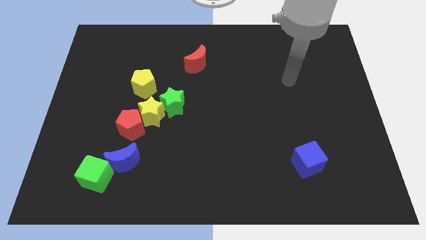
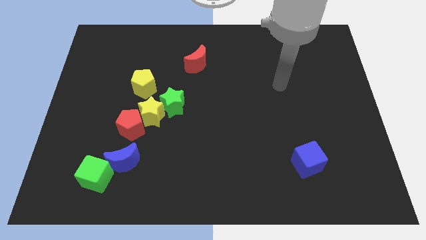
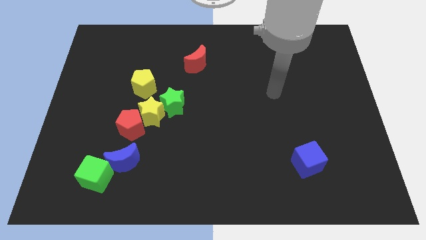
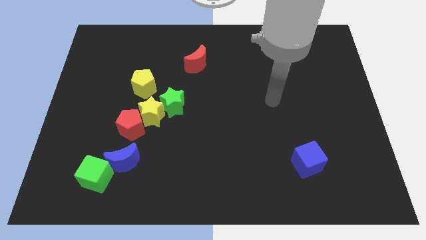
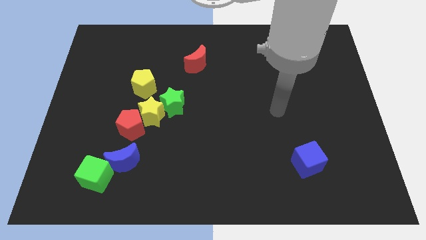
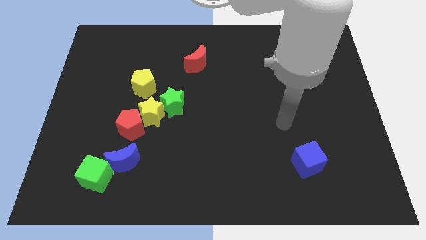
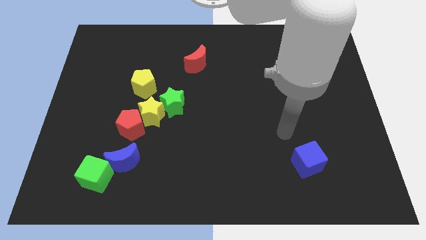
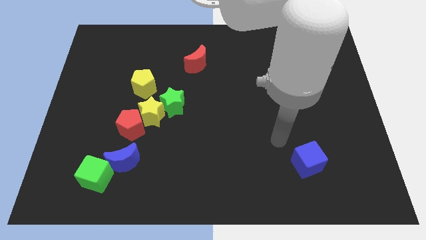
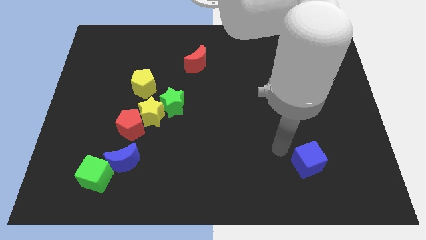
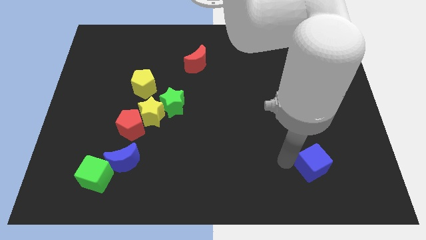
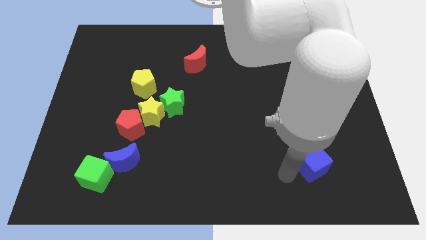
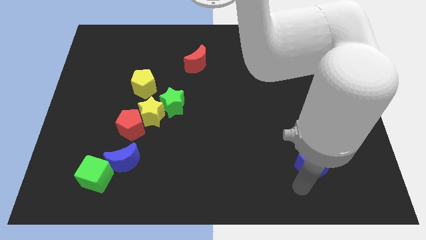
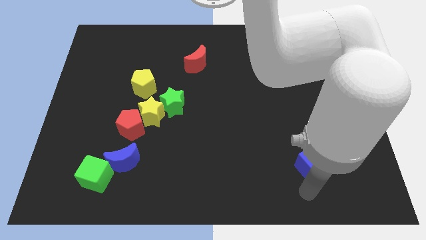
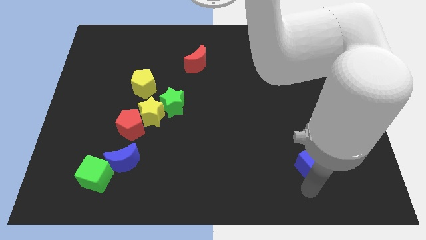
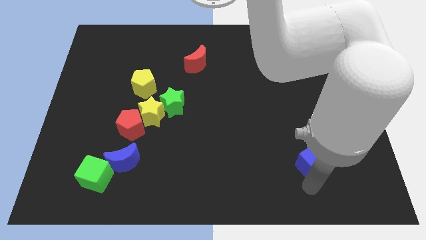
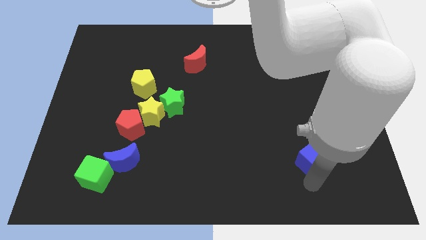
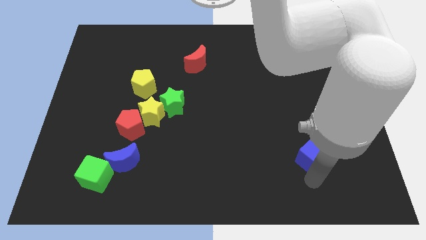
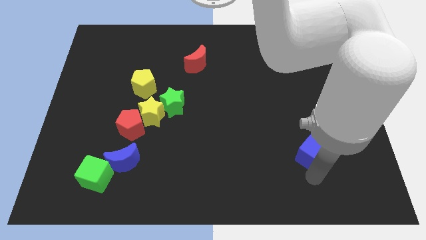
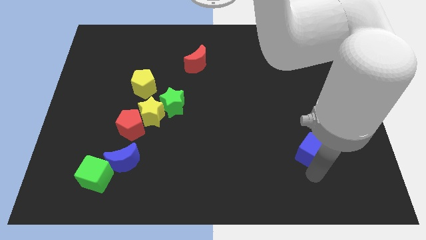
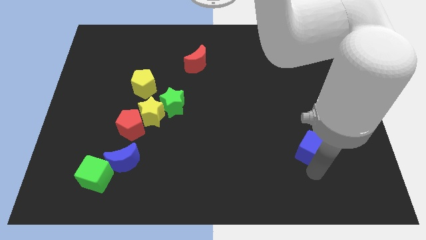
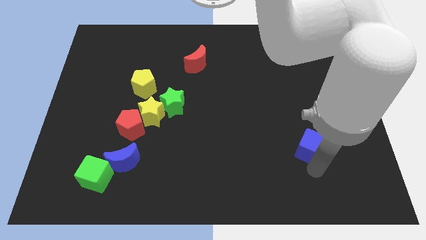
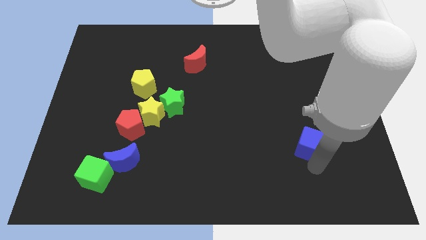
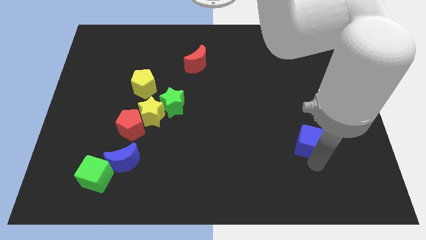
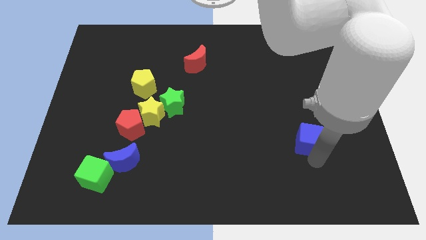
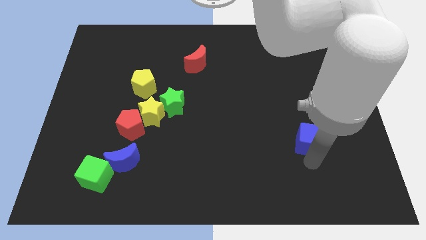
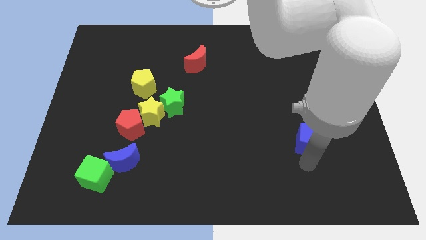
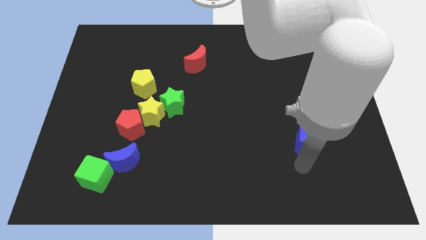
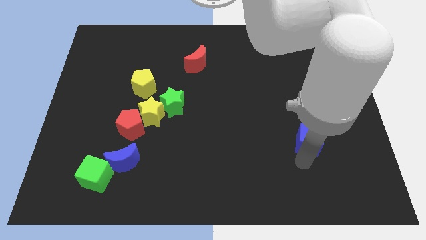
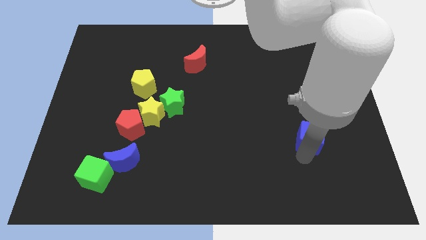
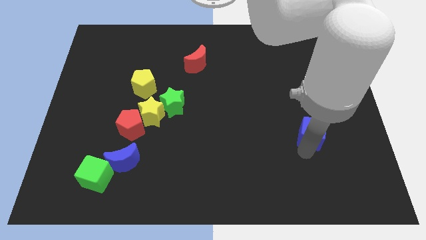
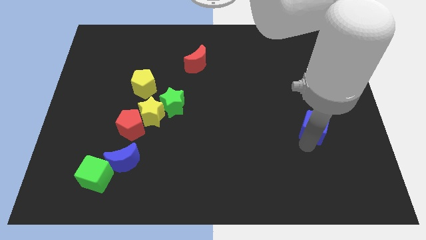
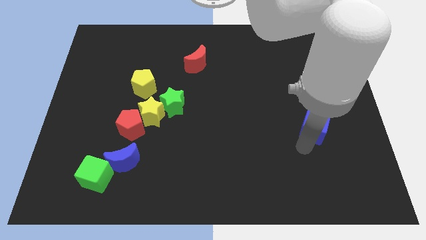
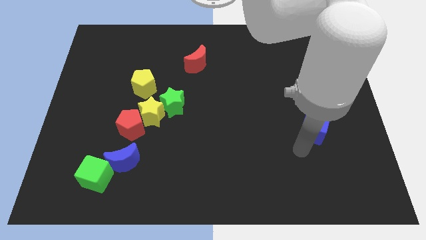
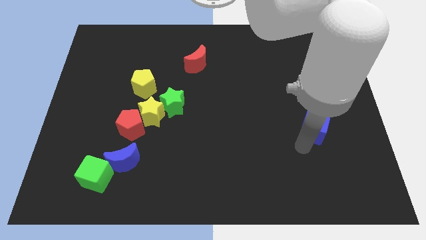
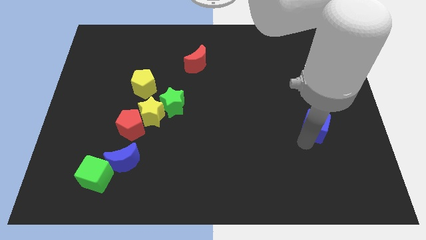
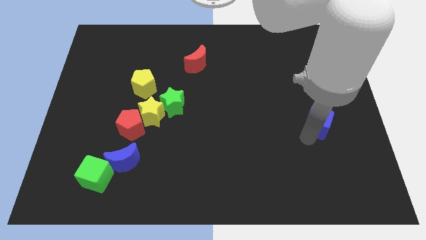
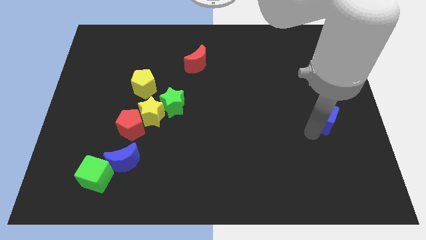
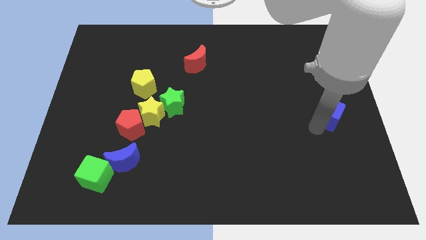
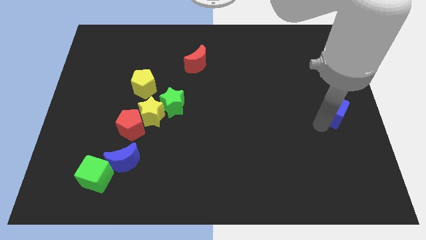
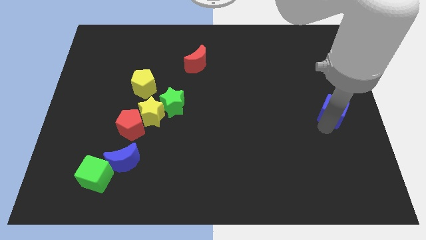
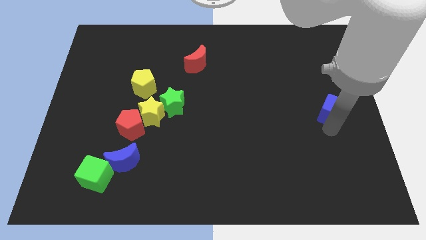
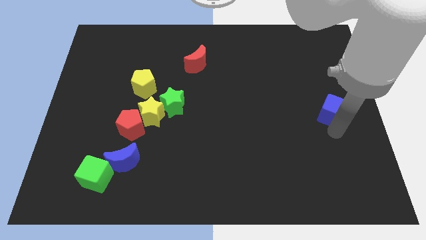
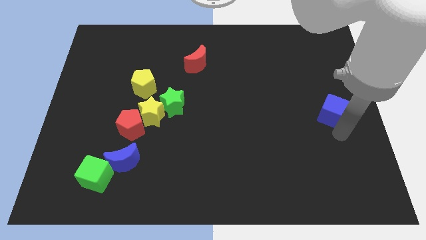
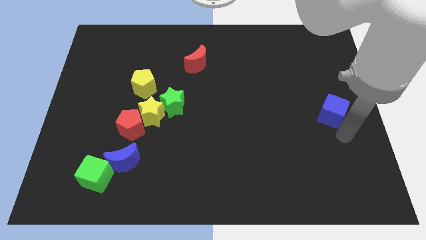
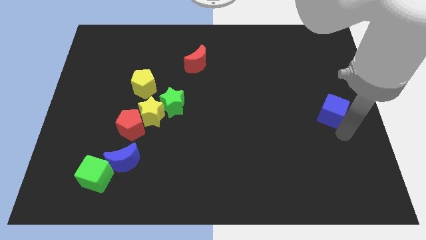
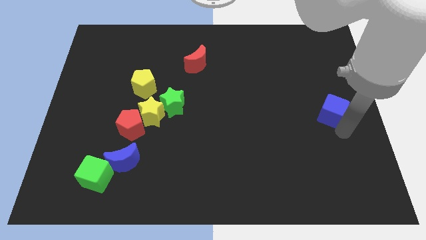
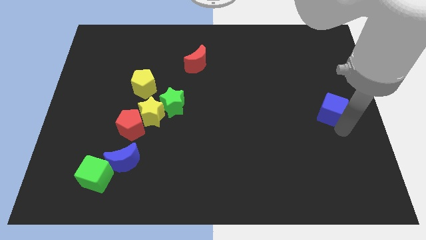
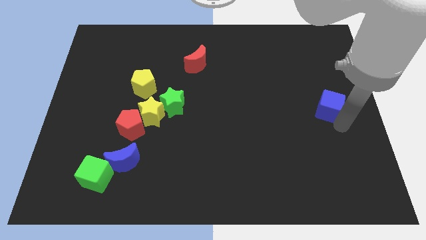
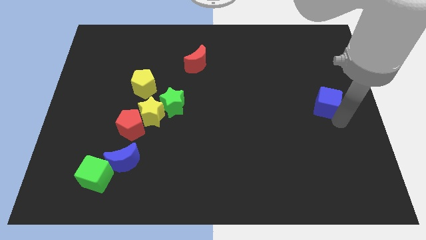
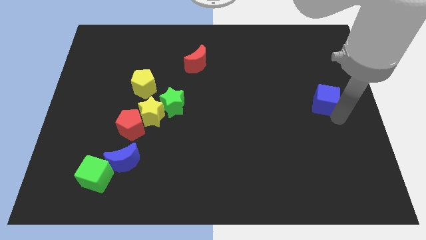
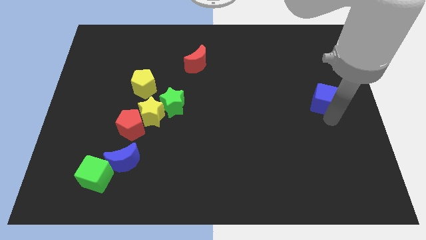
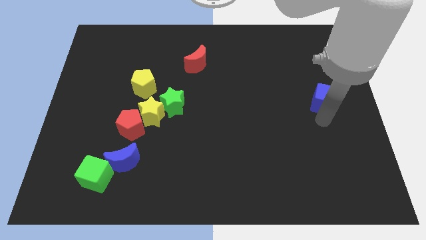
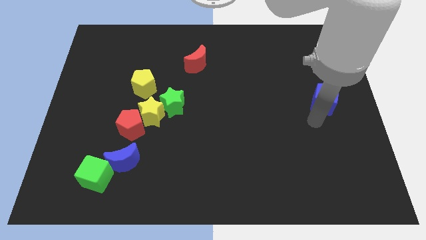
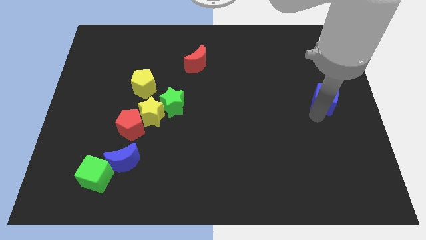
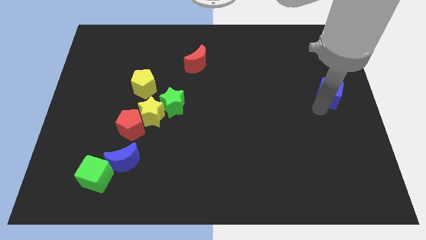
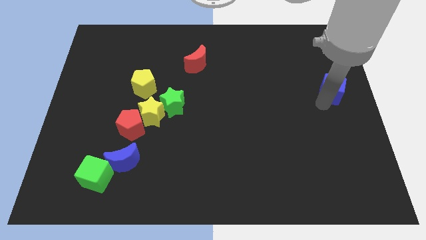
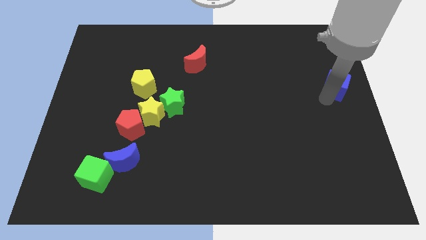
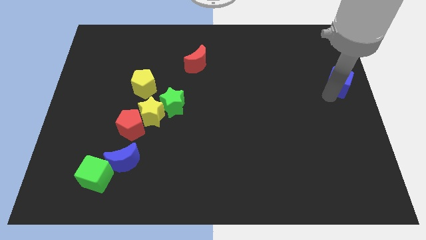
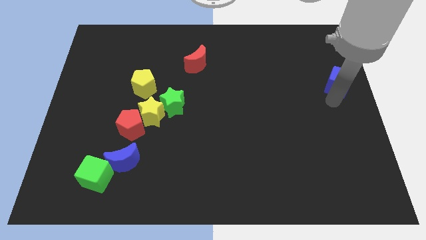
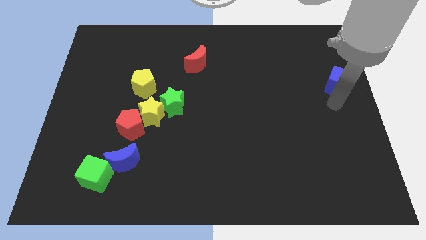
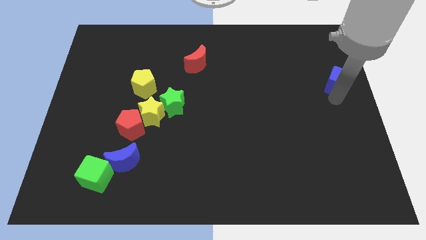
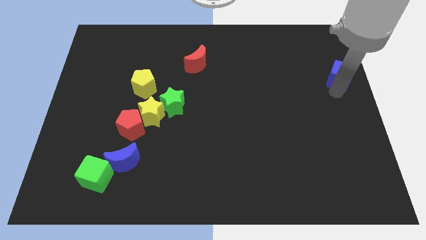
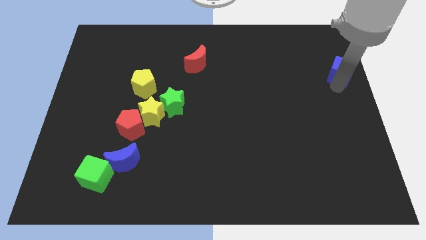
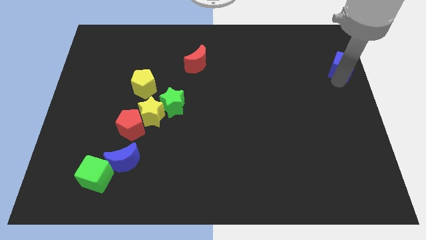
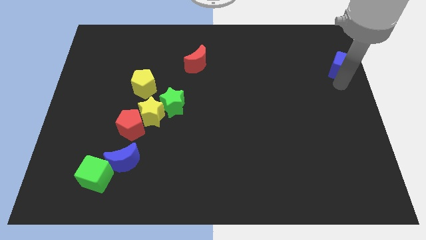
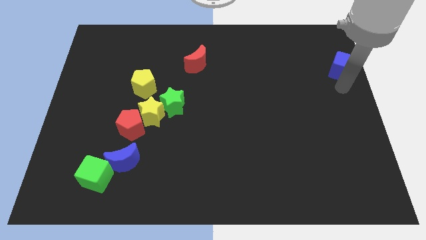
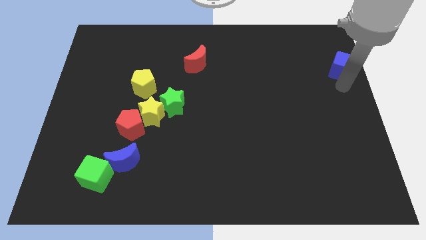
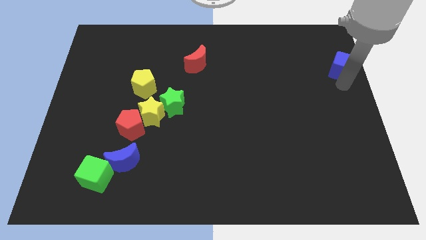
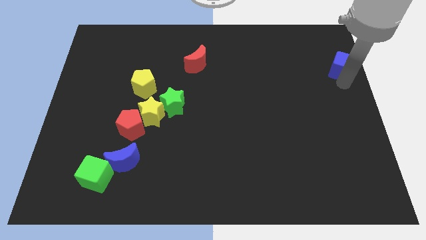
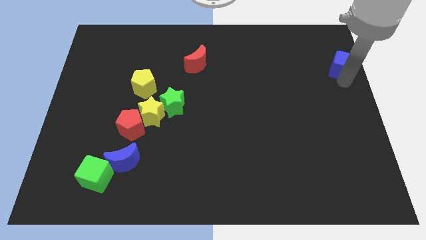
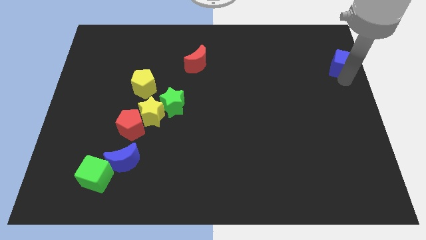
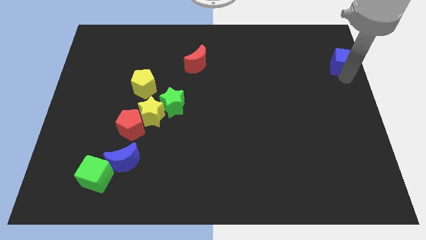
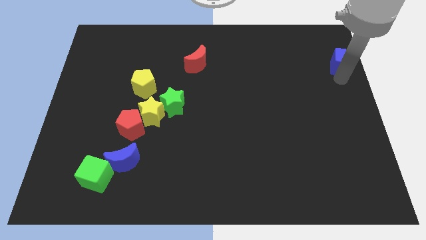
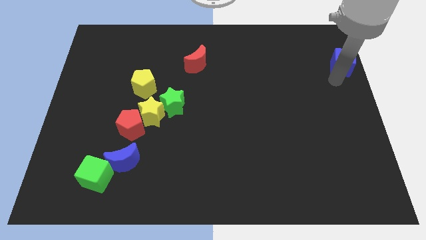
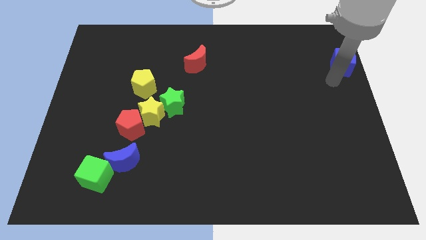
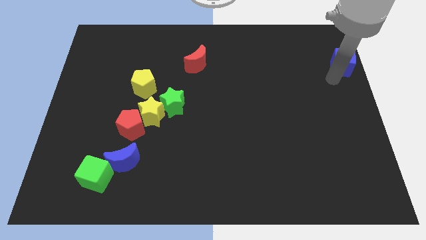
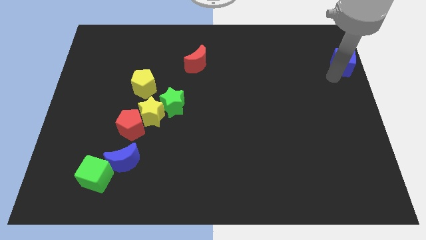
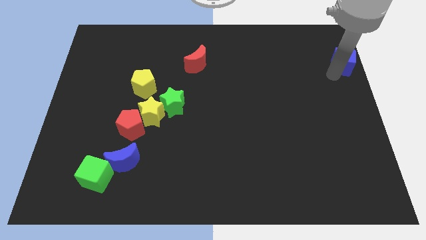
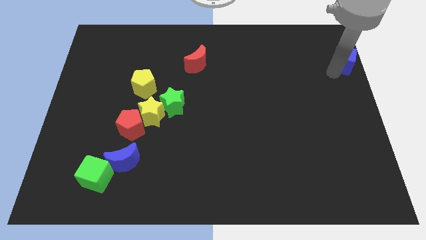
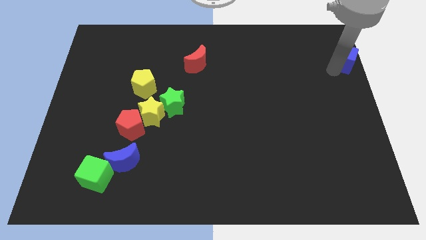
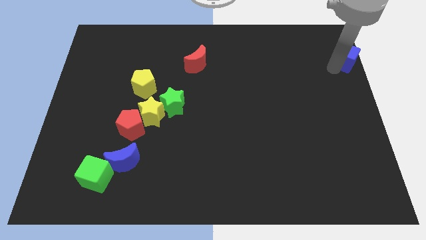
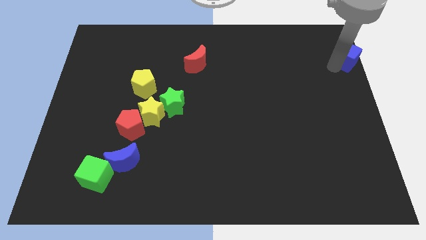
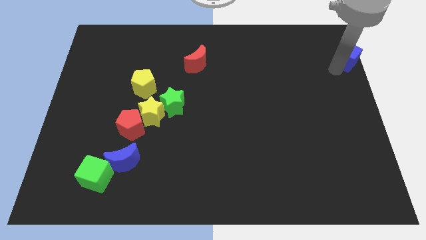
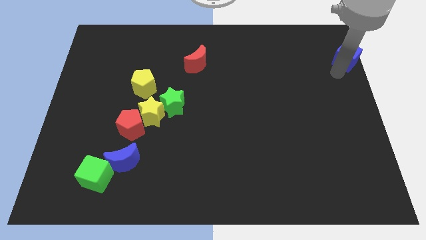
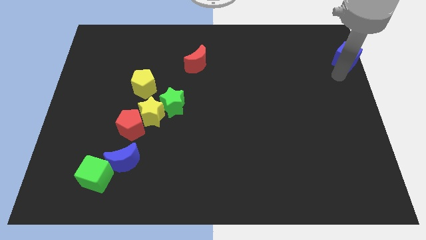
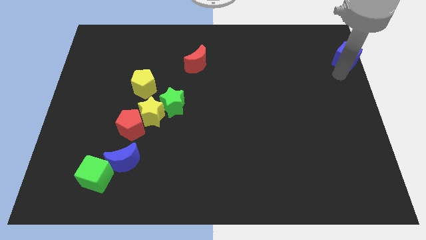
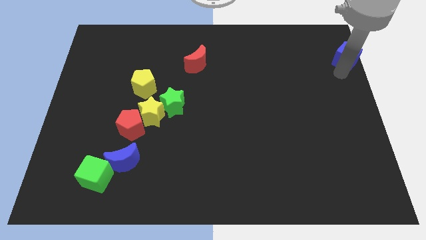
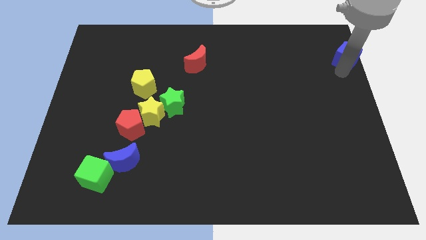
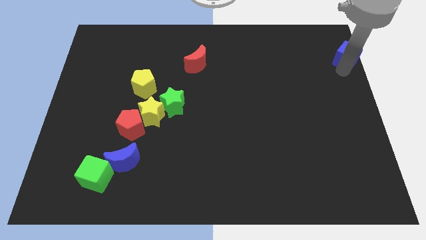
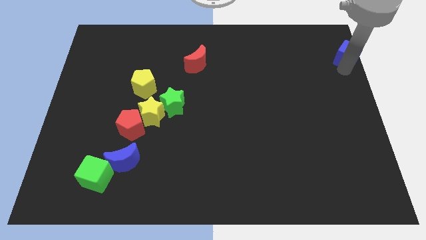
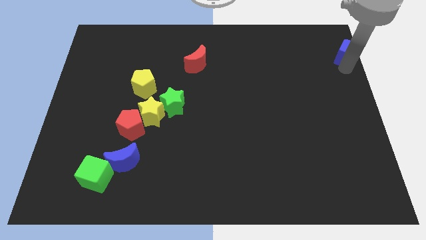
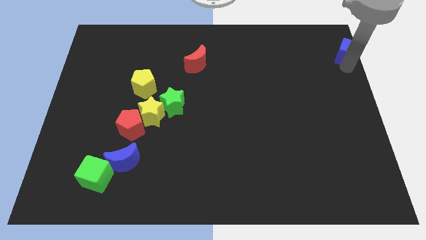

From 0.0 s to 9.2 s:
push the blue cube to the top right of the board
